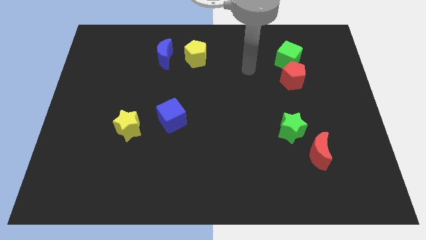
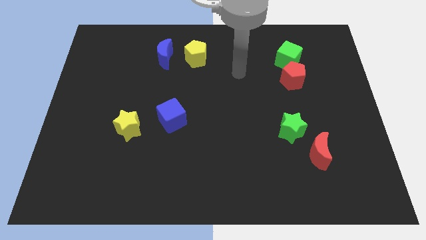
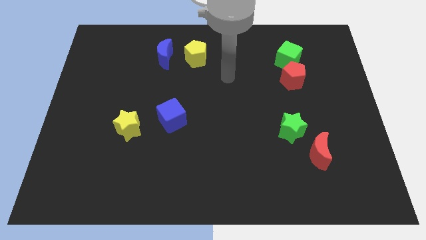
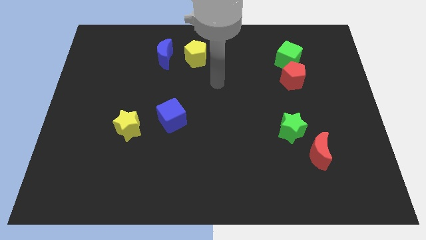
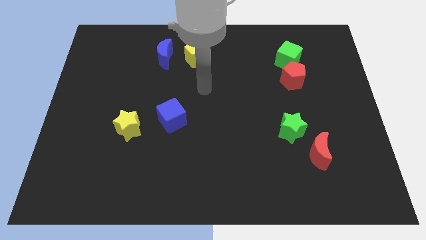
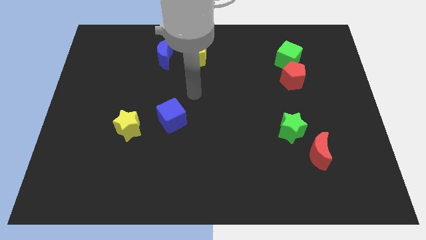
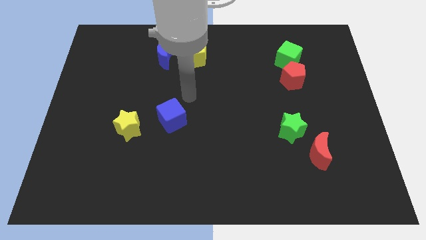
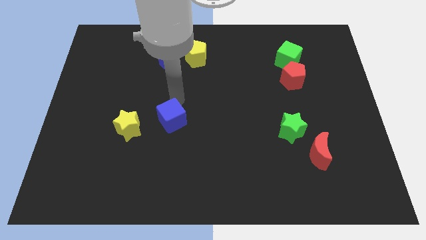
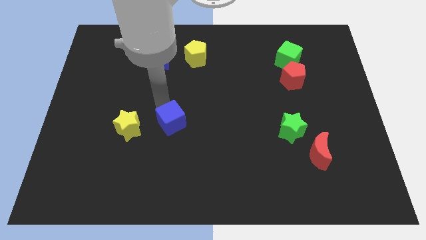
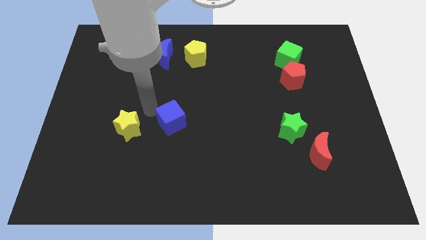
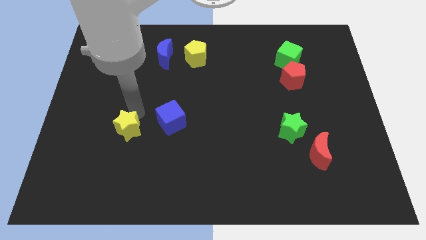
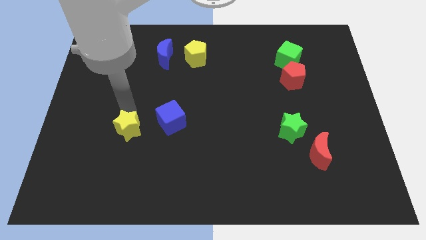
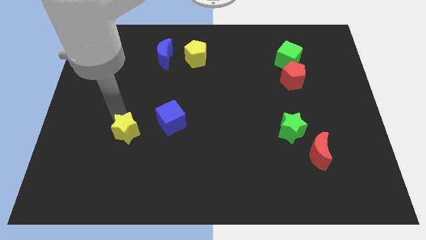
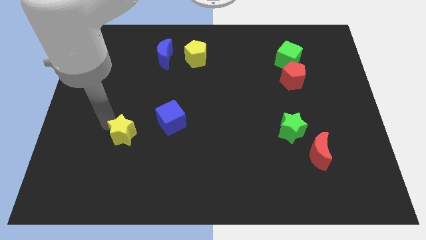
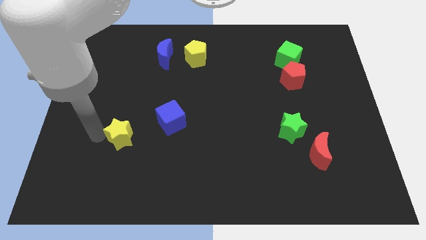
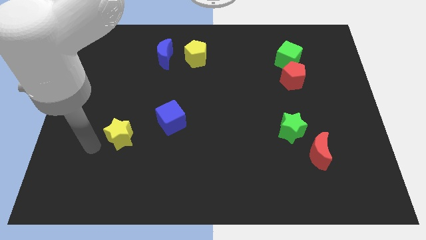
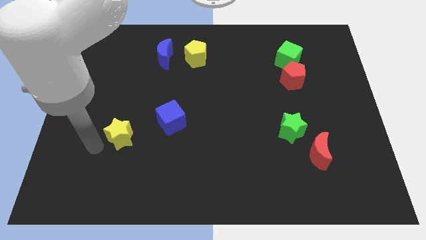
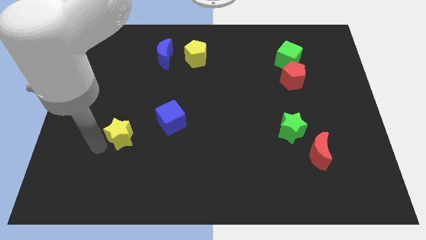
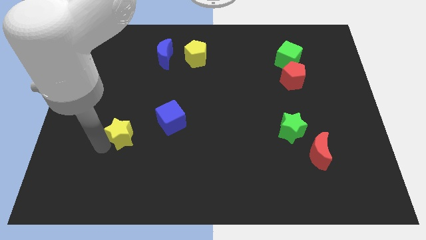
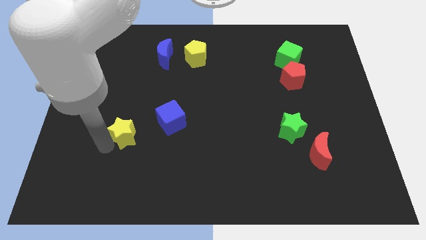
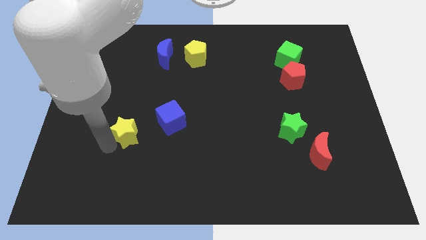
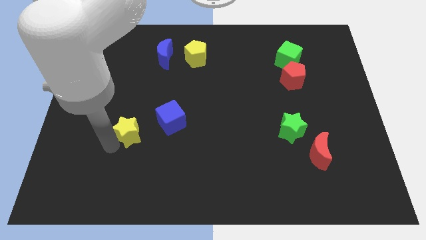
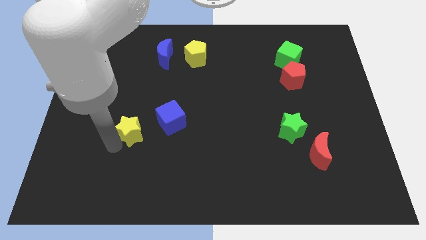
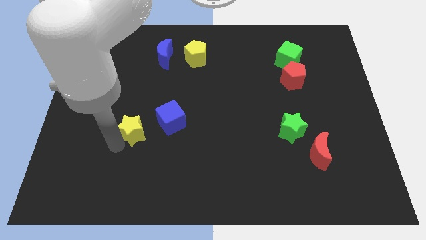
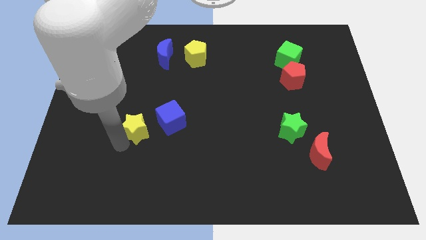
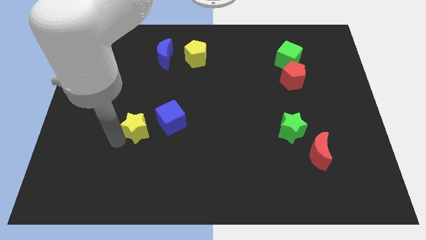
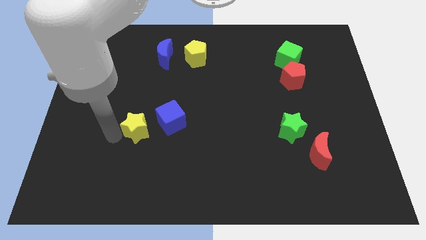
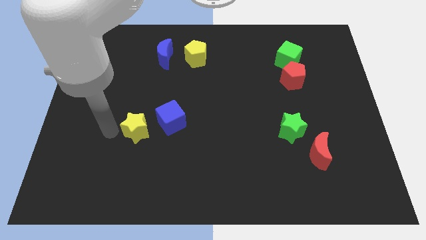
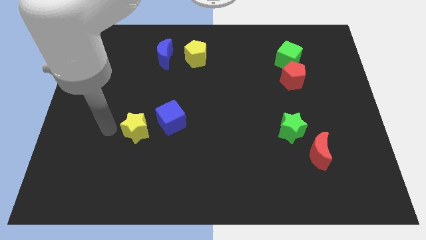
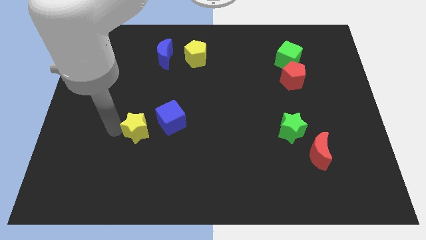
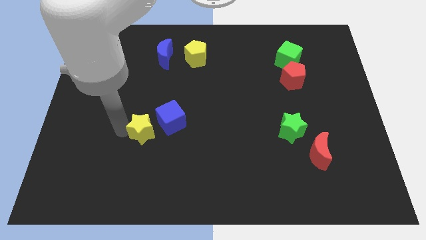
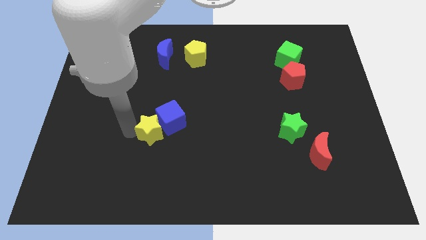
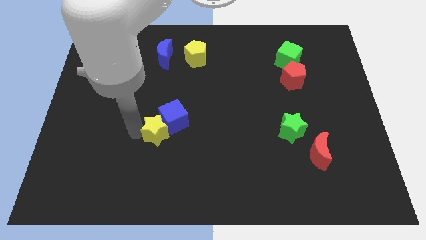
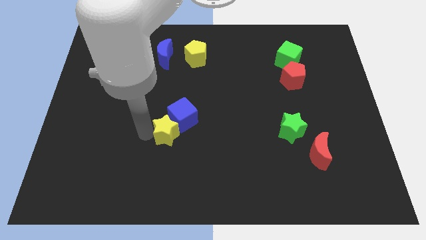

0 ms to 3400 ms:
slide the yellow star to the right somewhat

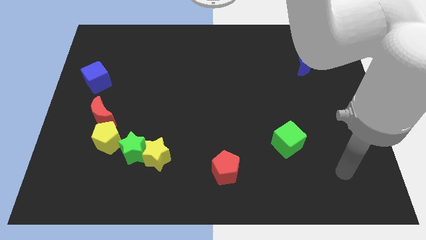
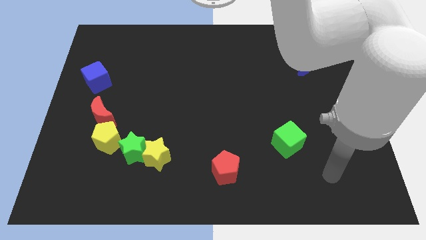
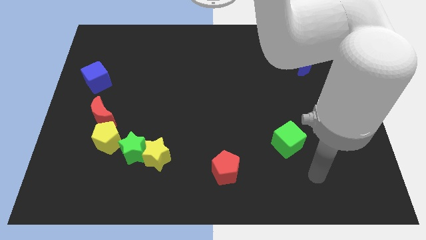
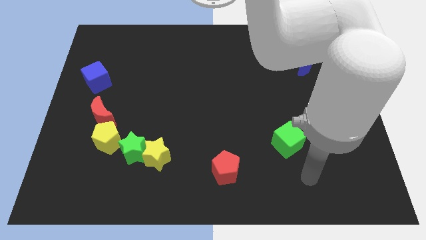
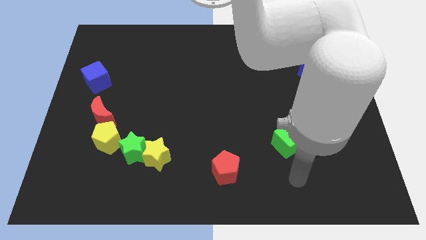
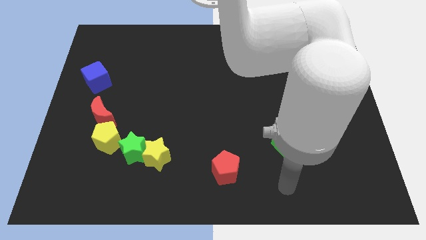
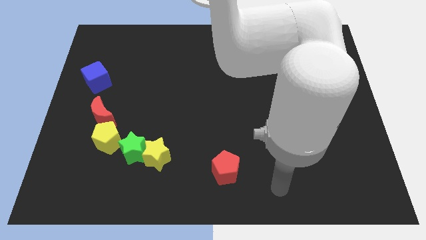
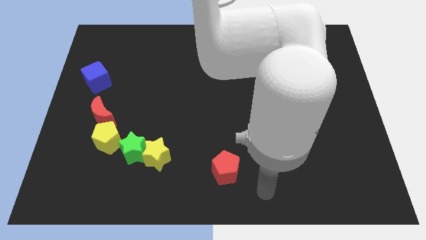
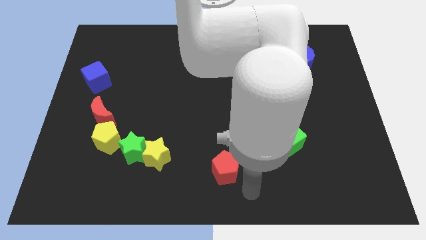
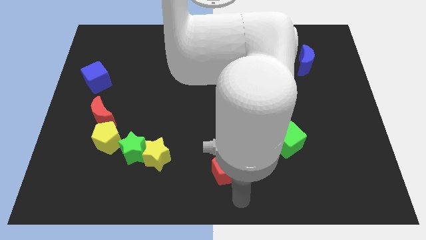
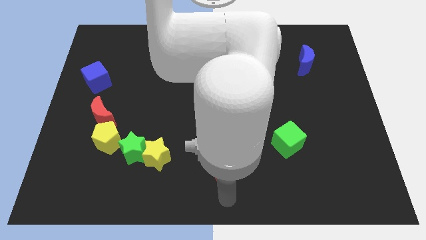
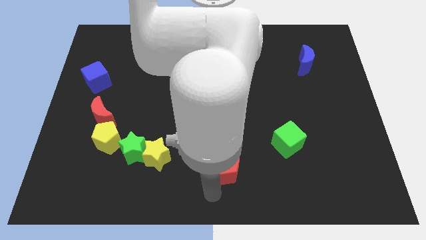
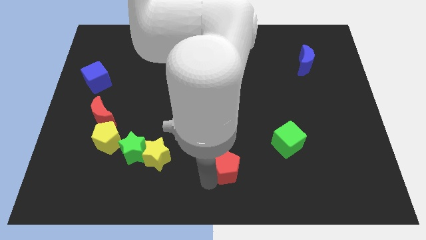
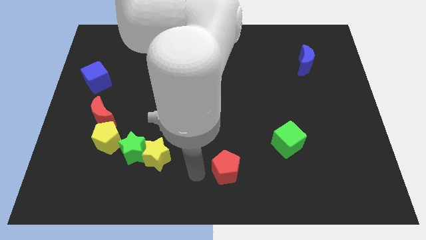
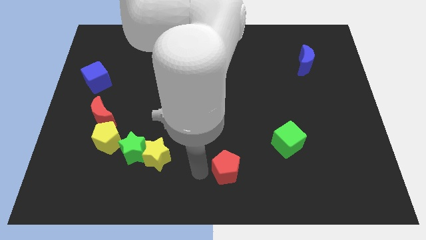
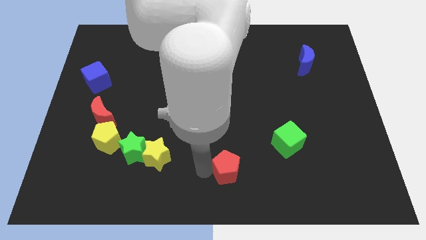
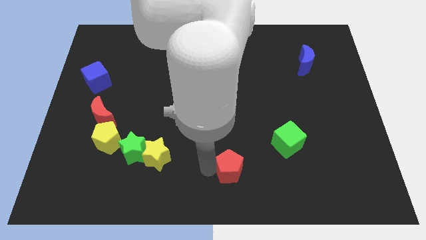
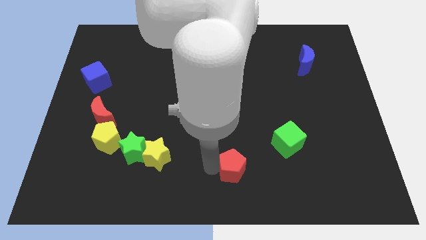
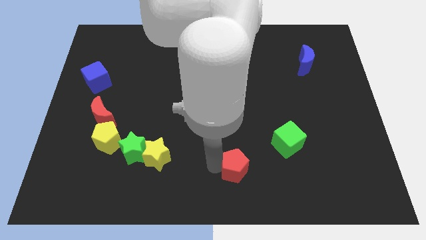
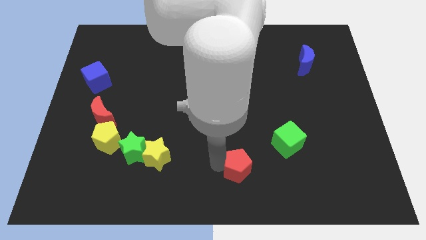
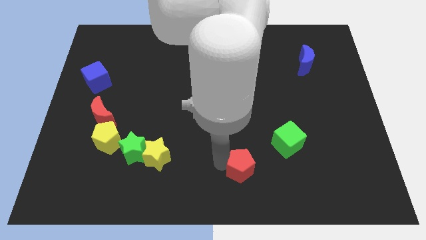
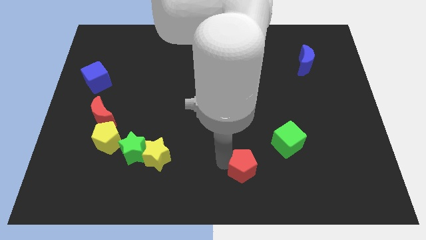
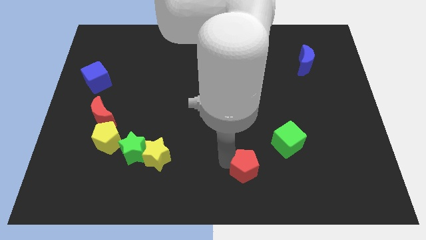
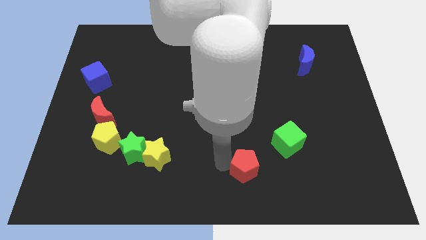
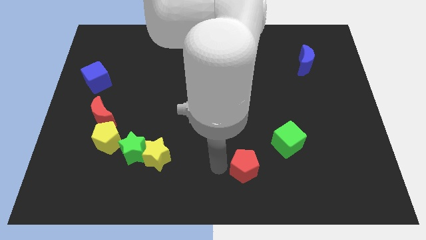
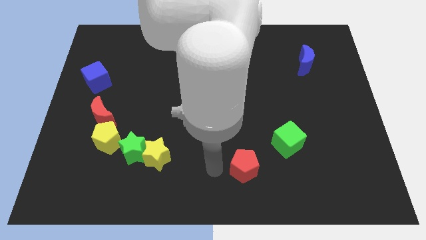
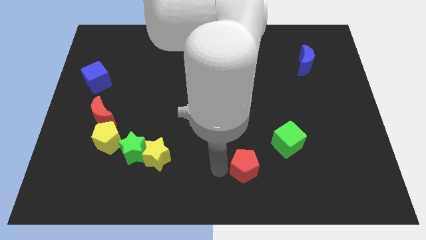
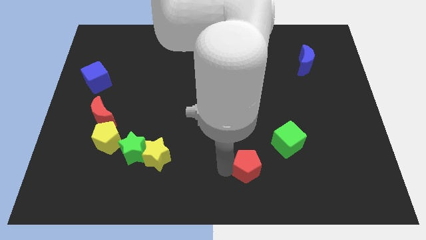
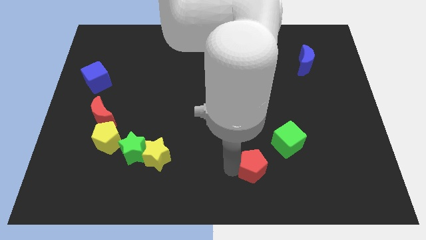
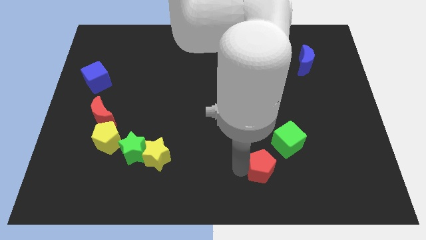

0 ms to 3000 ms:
slide the red pentagon right a bit

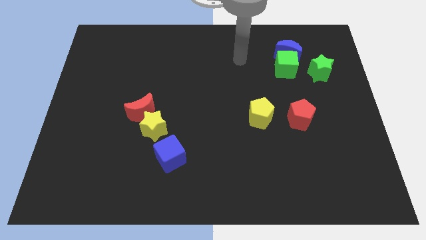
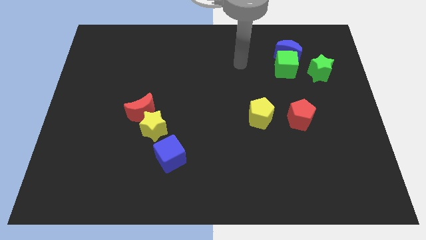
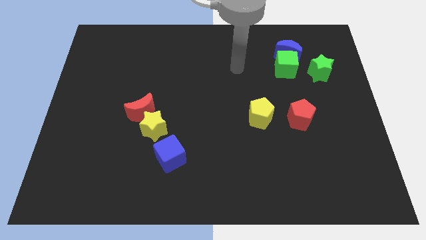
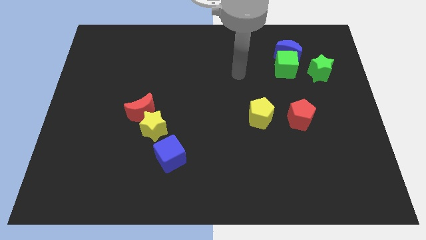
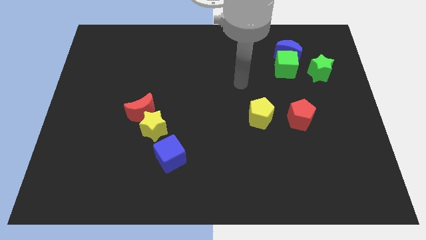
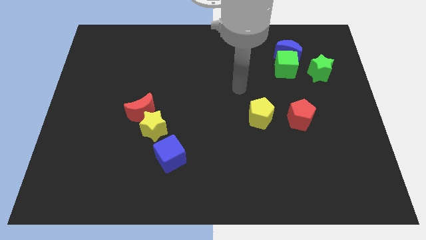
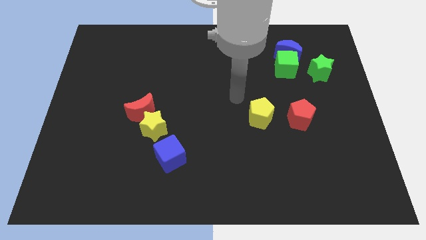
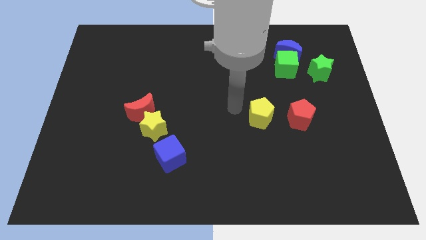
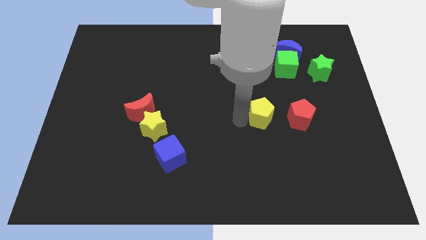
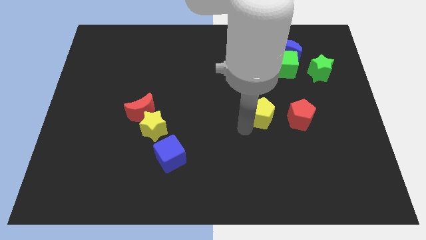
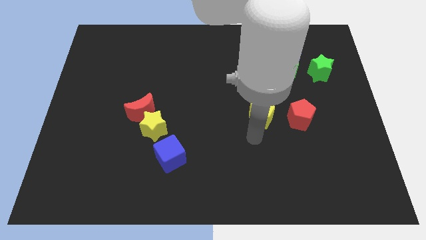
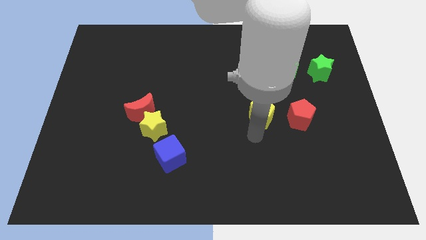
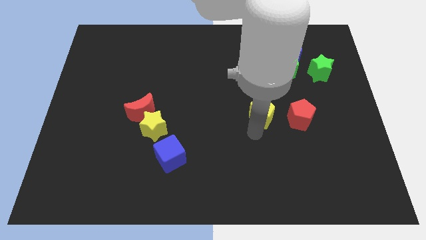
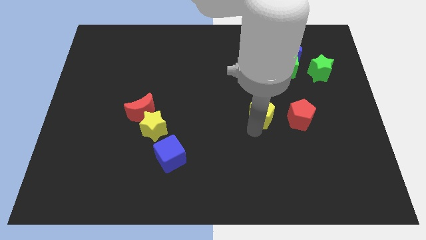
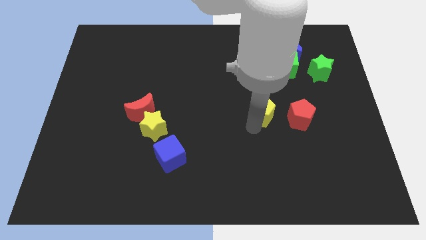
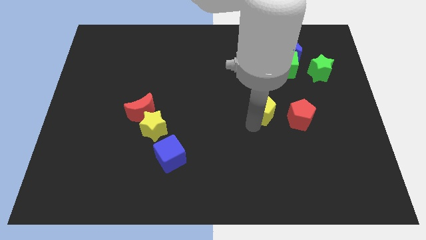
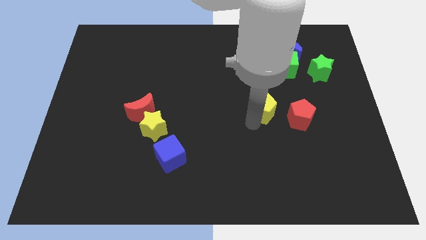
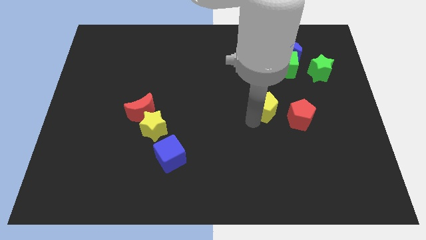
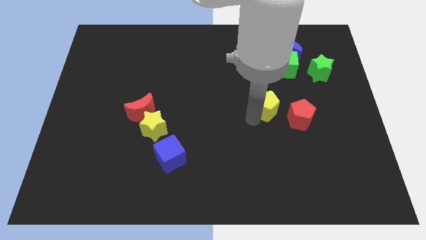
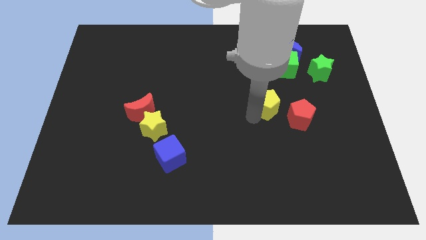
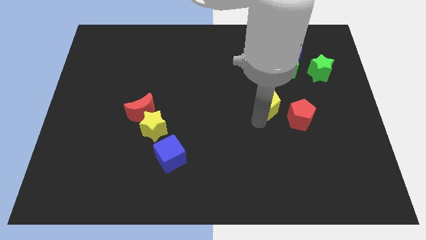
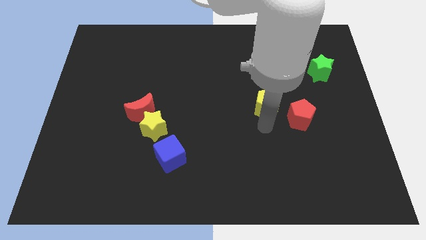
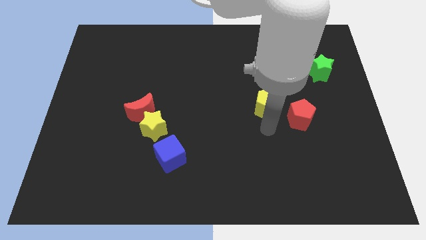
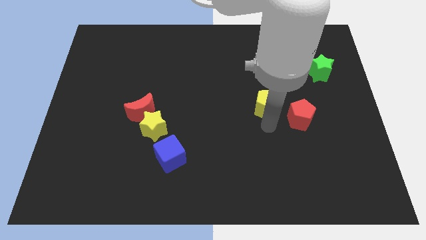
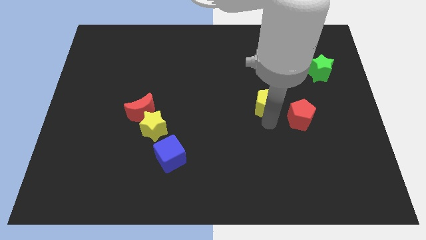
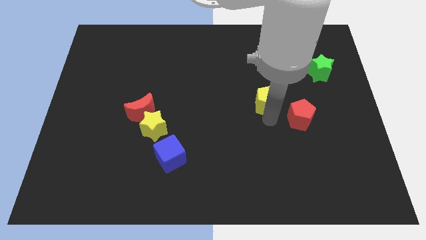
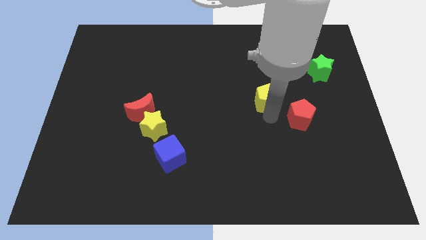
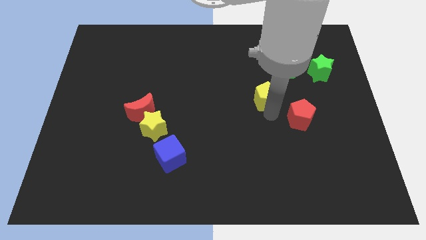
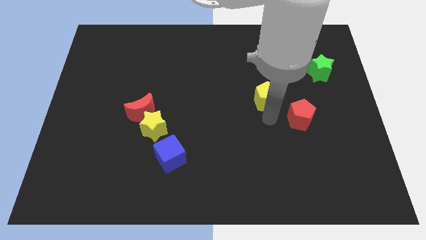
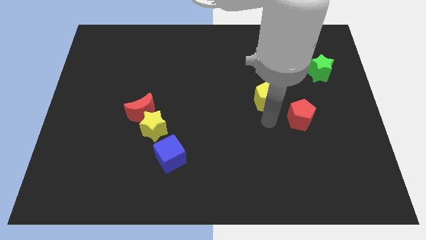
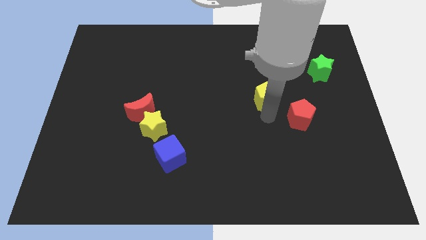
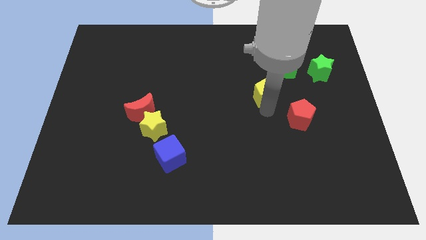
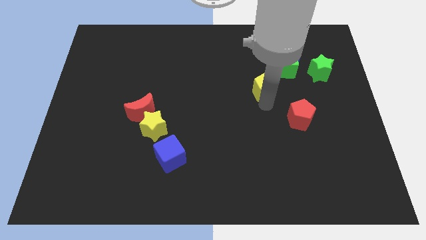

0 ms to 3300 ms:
slightly push the yellow pentagon upwards
